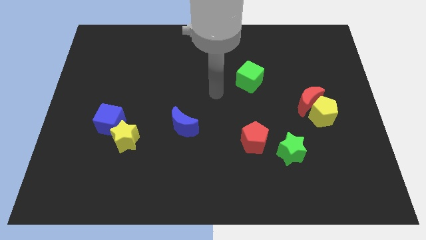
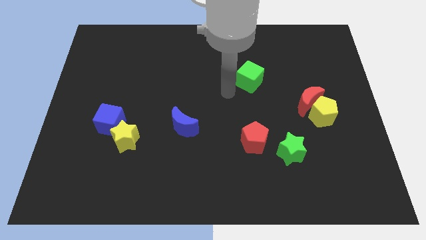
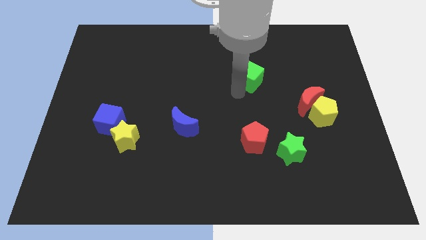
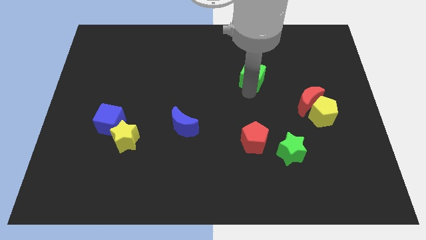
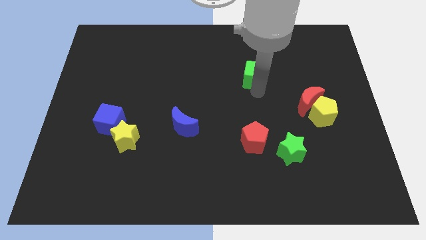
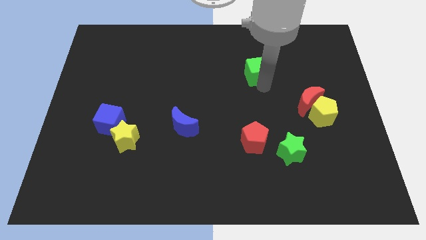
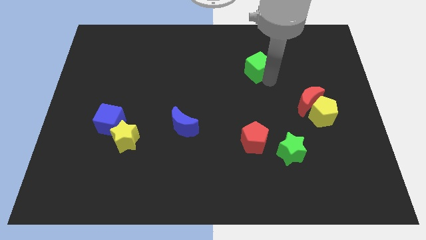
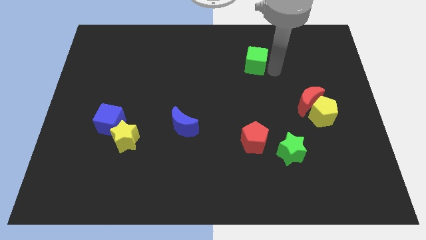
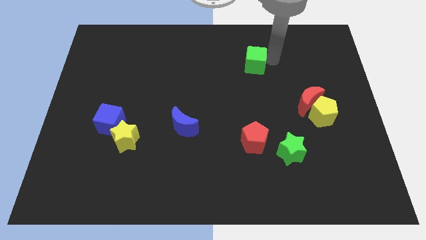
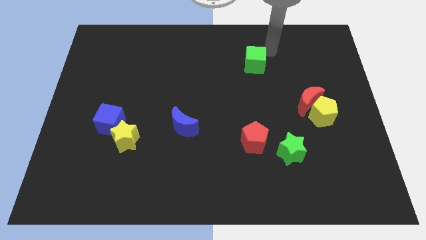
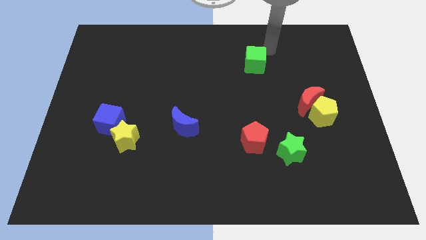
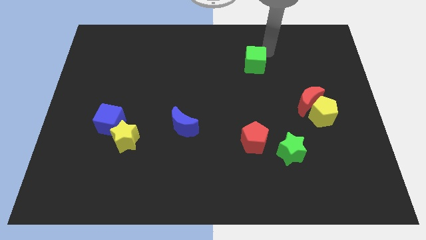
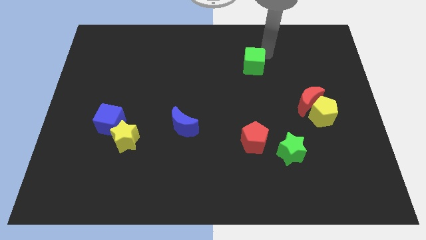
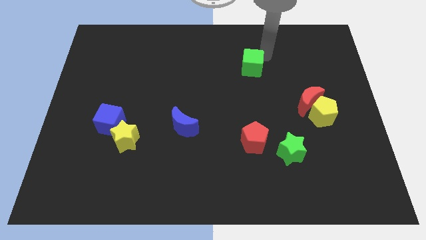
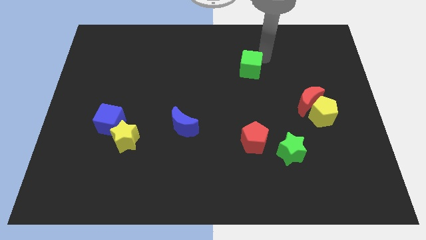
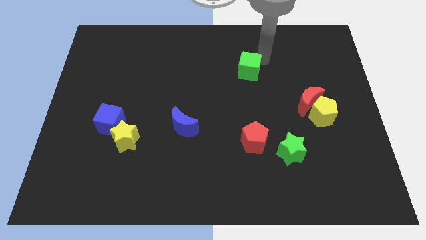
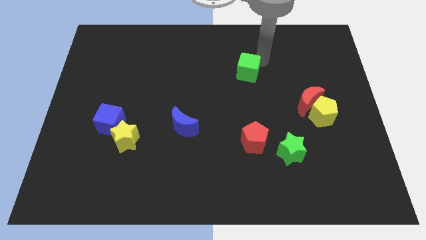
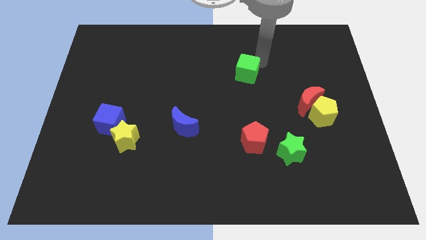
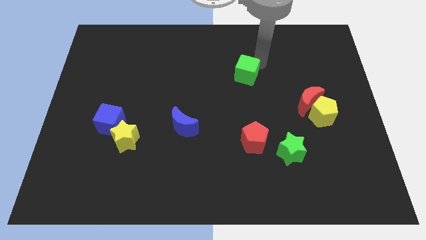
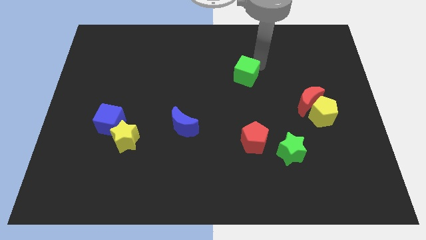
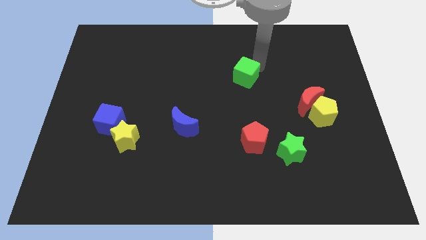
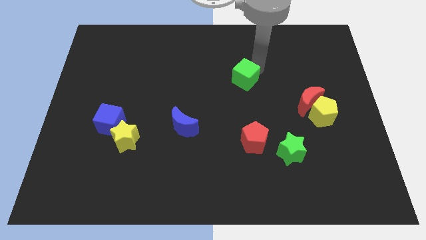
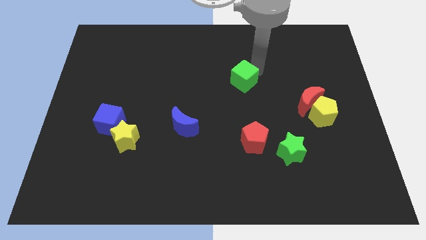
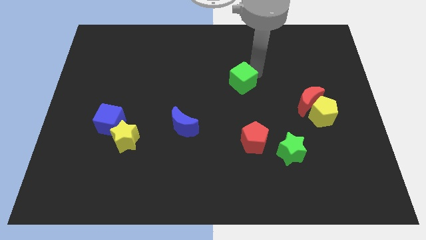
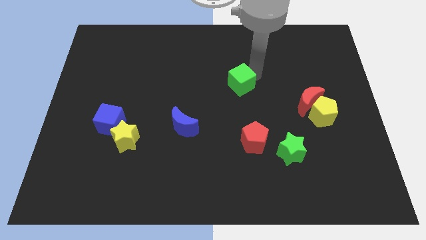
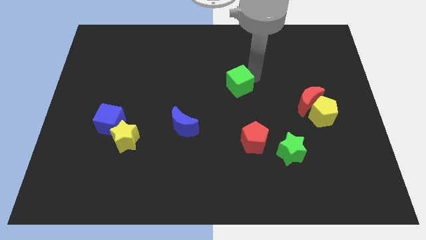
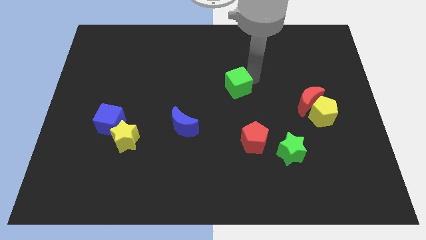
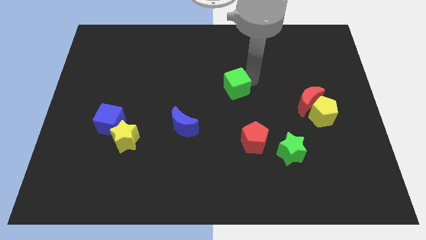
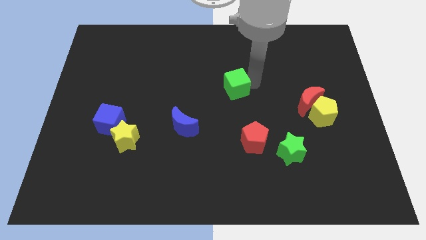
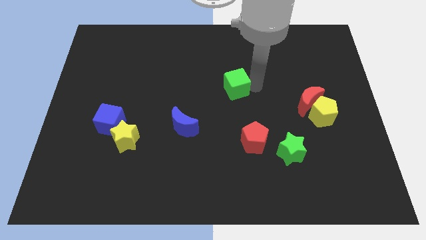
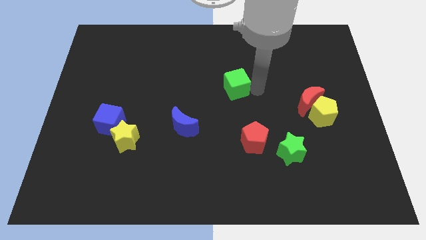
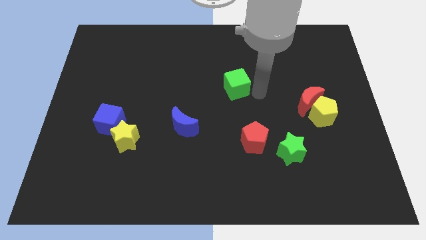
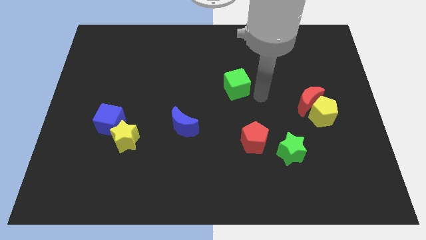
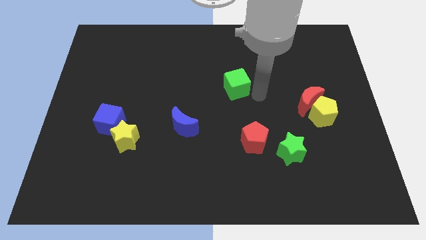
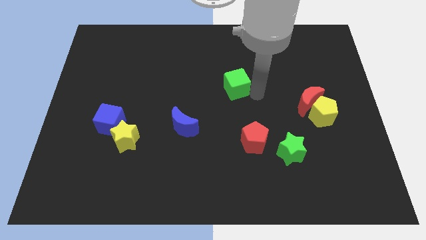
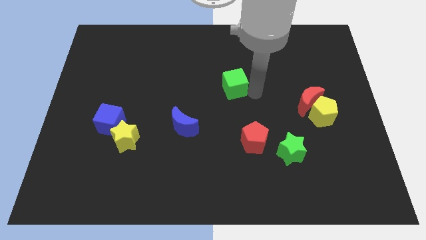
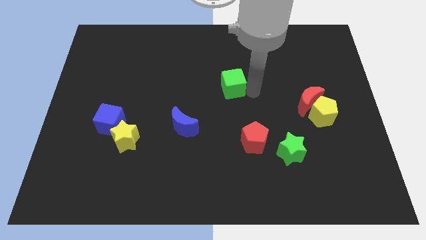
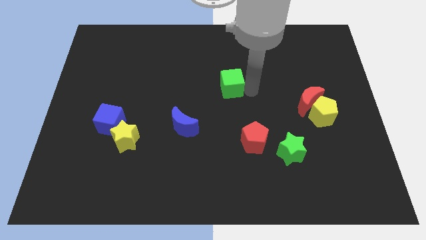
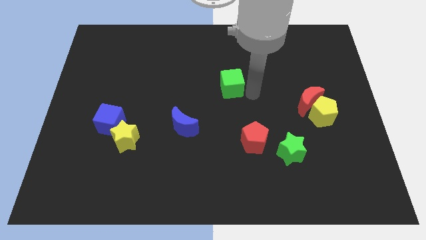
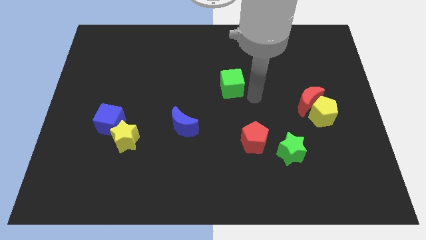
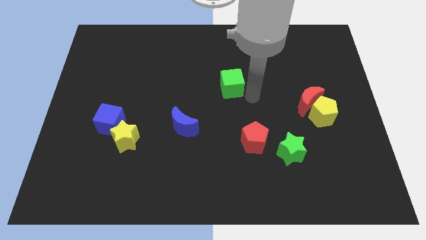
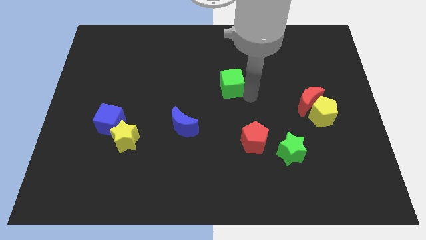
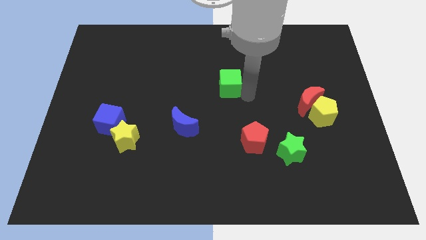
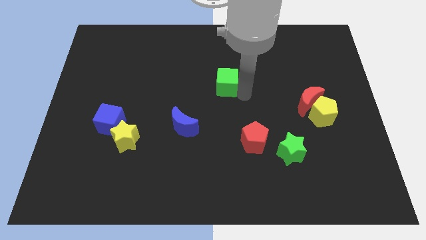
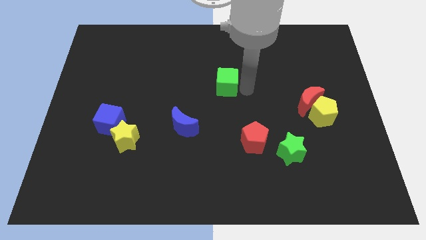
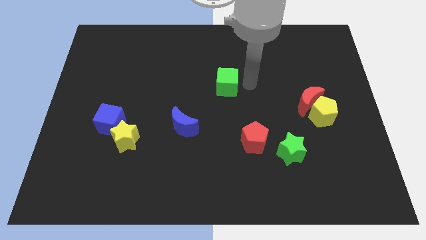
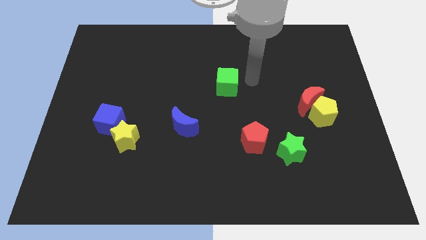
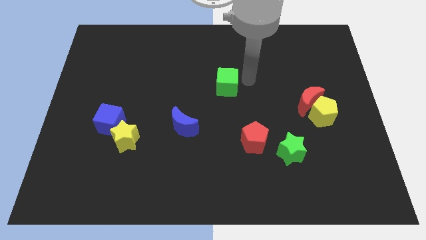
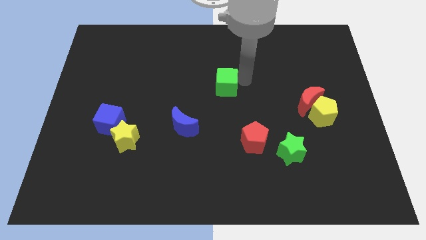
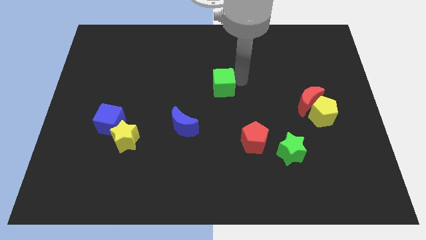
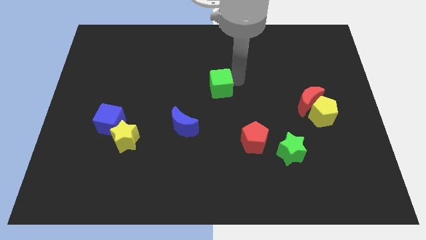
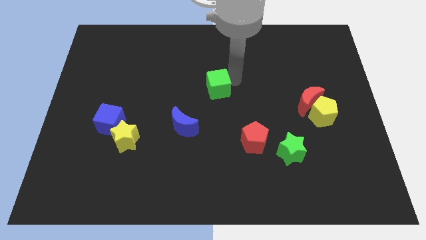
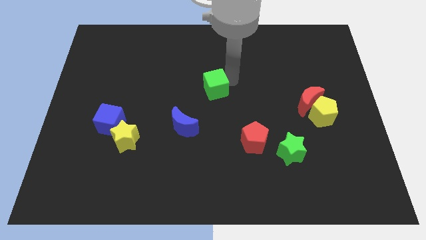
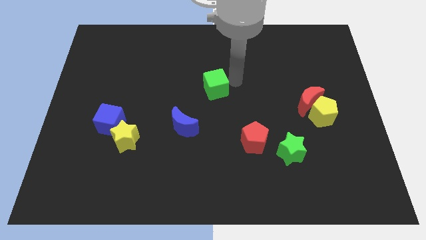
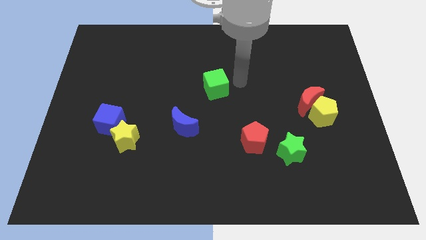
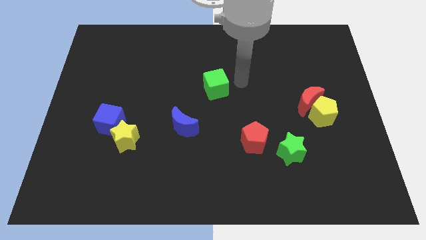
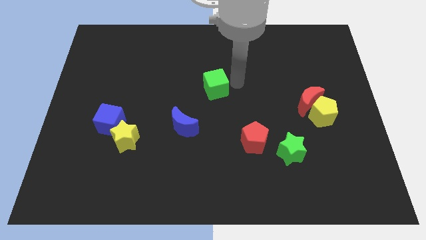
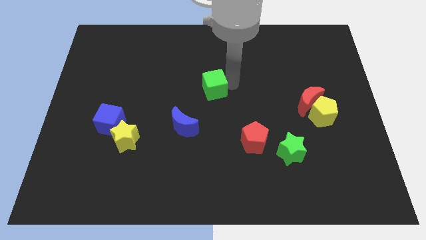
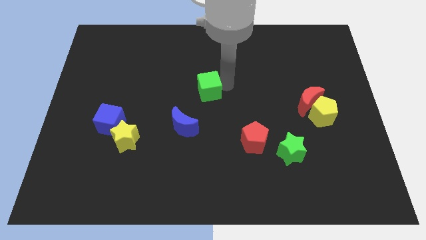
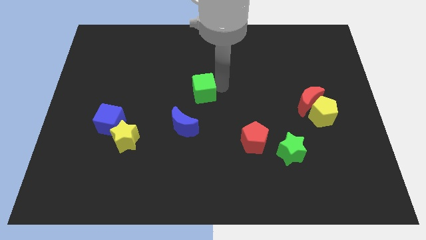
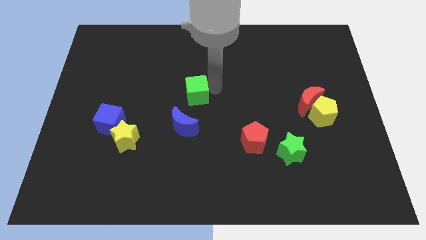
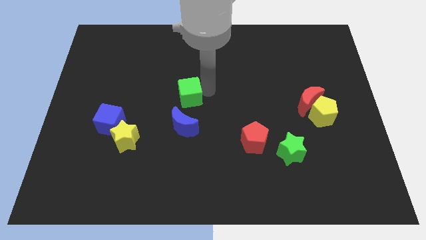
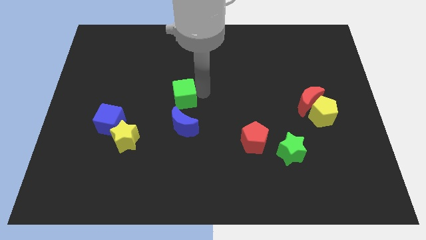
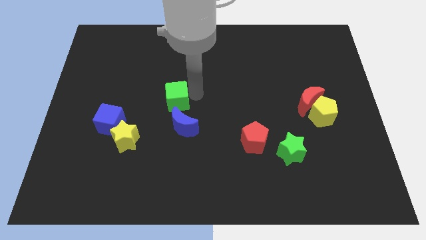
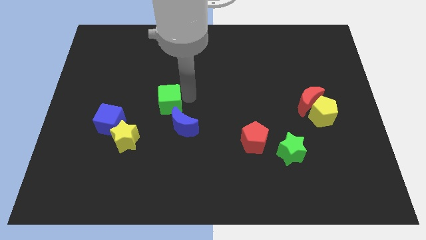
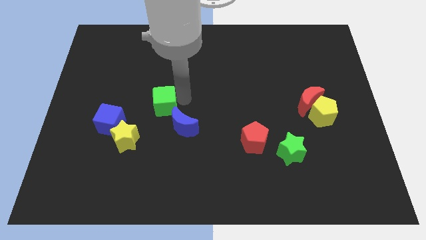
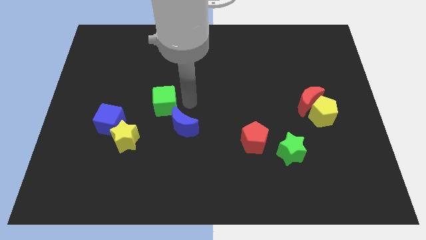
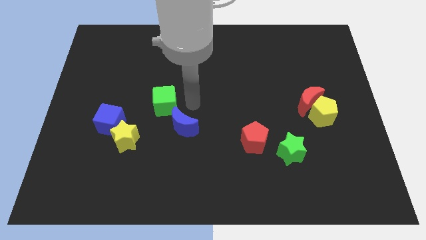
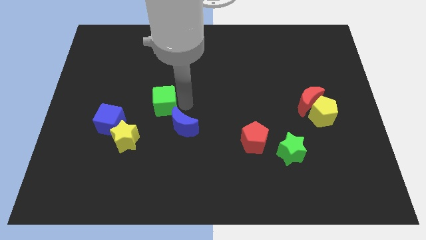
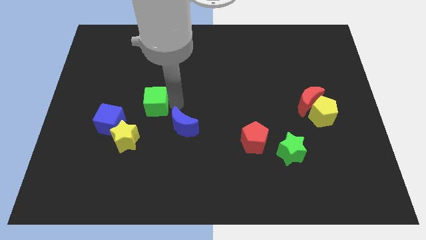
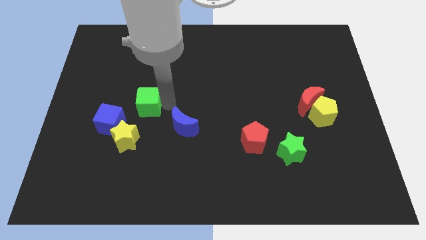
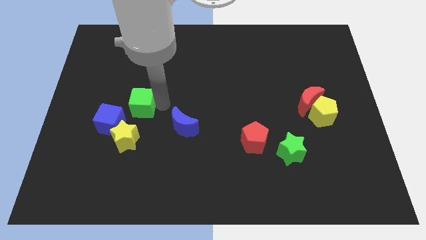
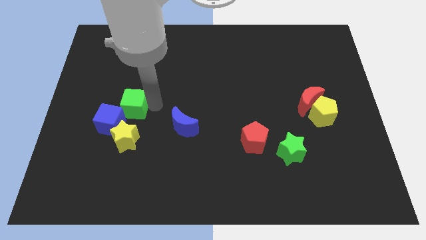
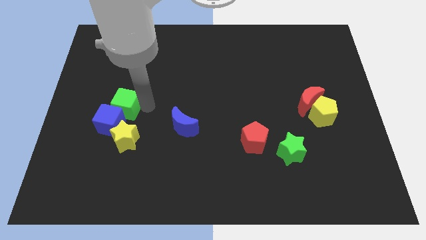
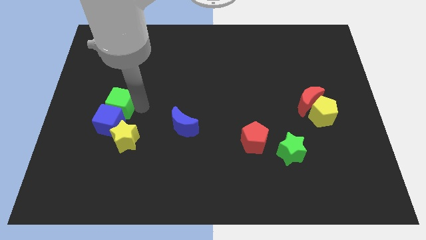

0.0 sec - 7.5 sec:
slide the green cube diagonally up and to the left of the blue cube
